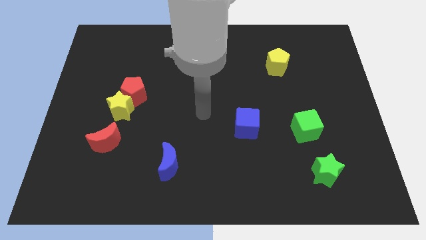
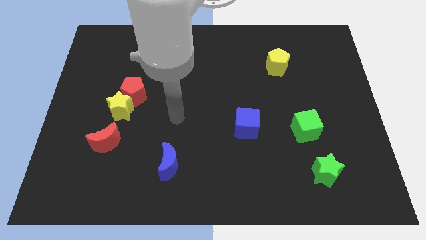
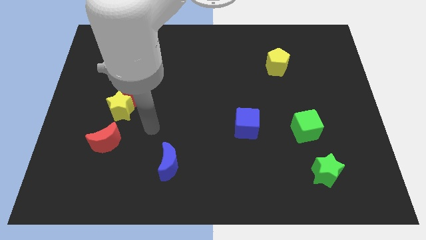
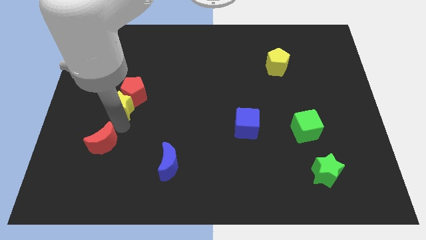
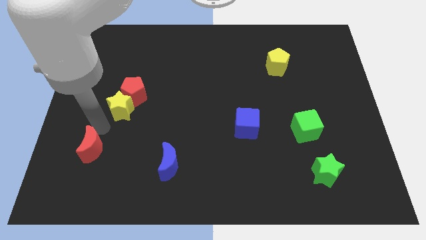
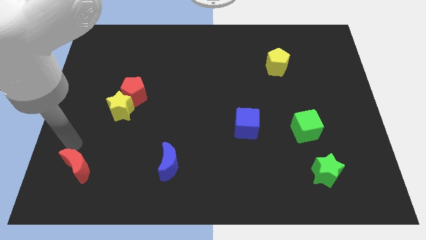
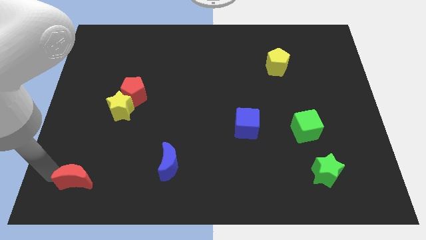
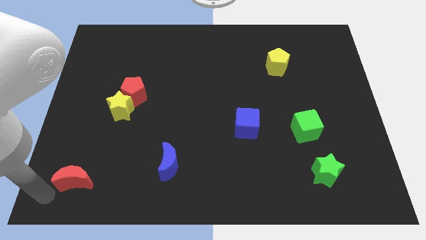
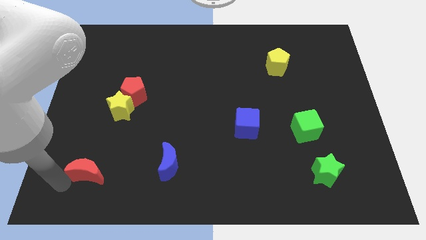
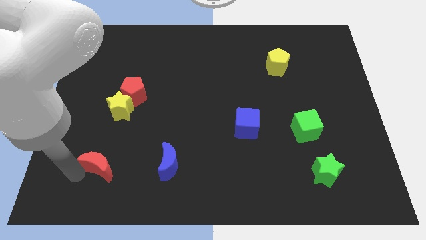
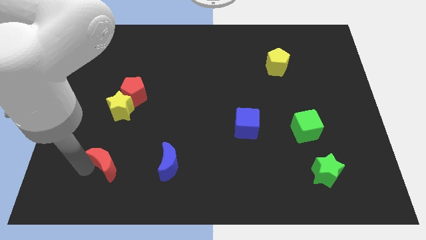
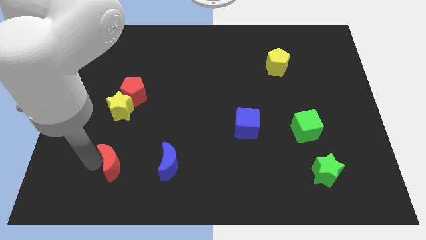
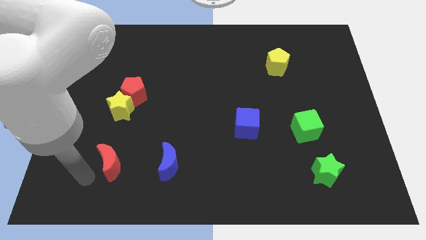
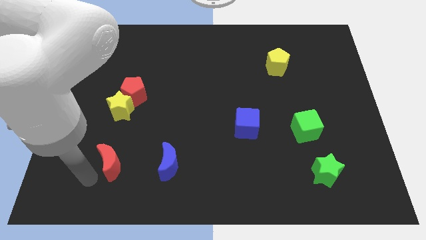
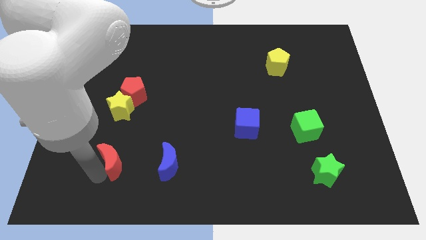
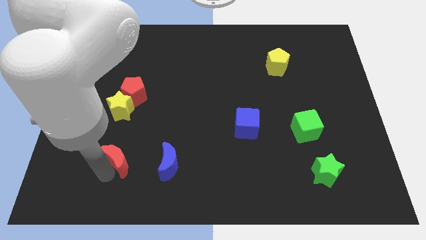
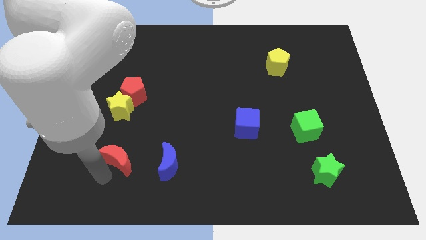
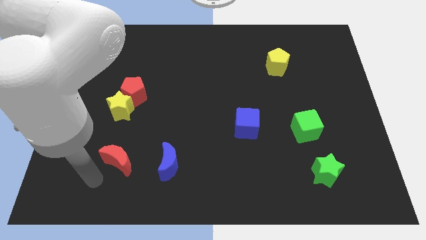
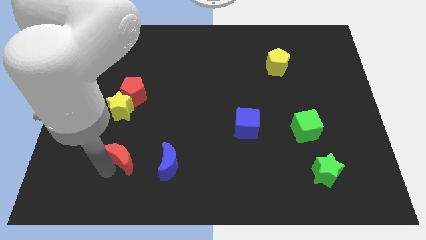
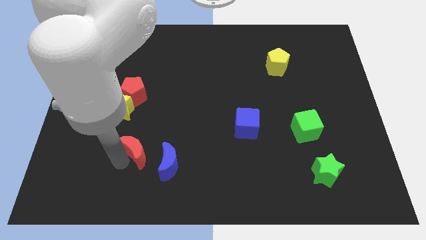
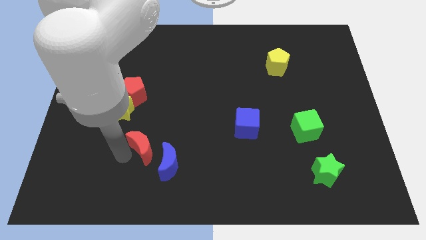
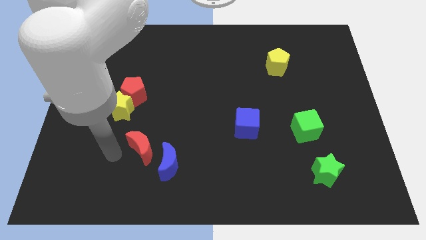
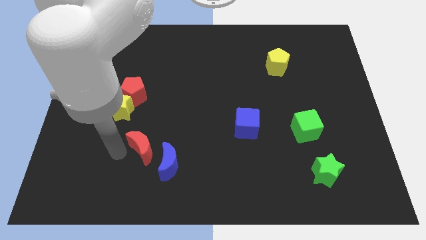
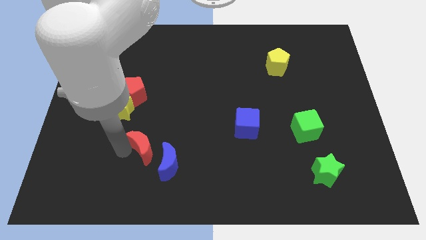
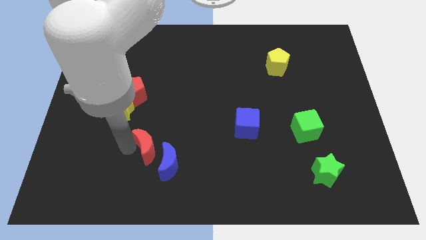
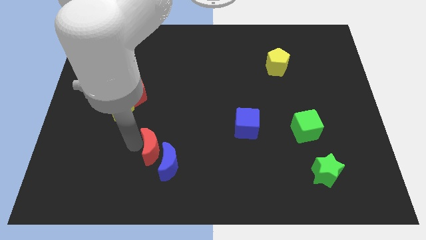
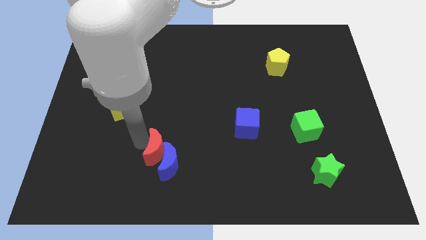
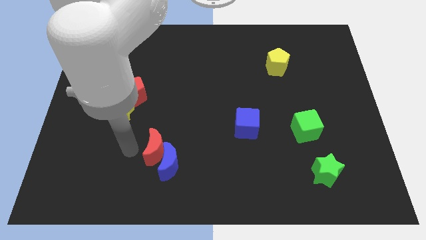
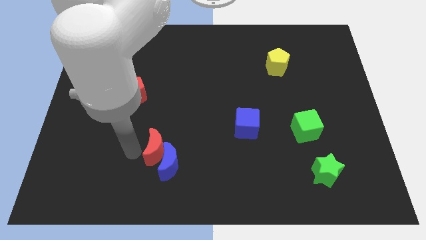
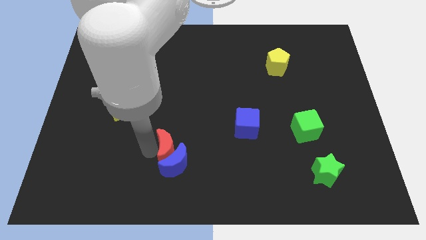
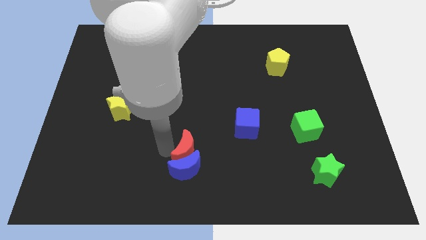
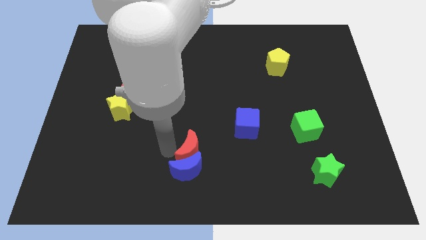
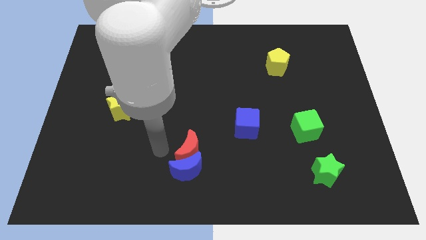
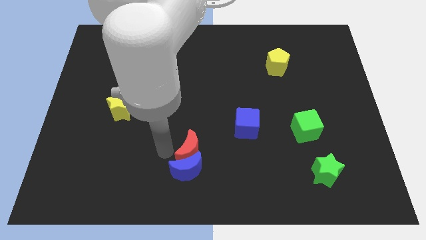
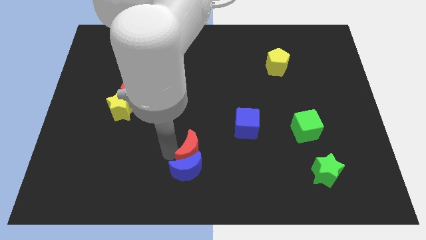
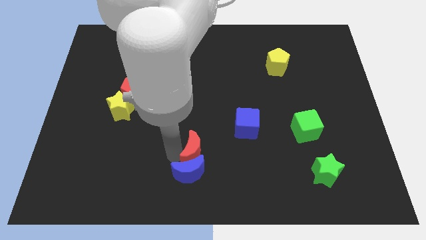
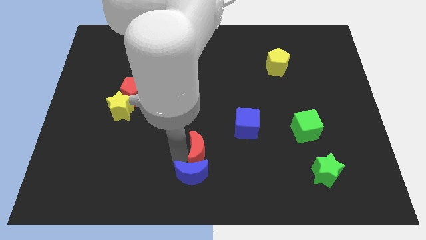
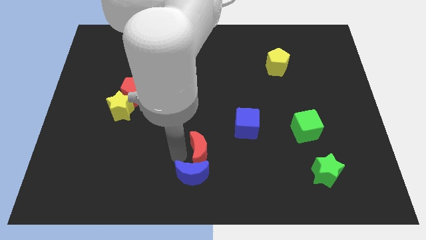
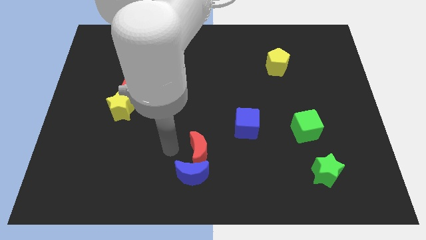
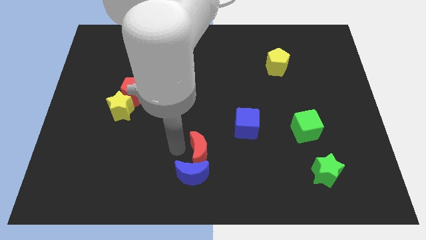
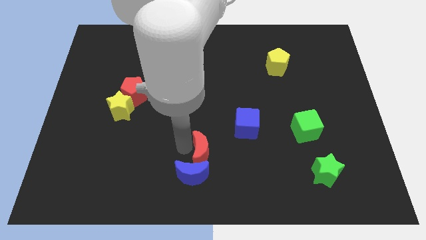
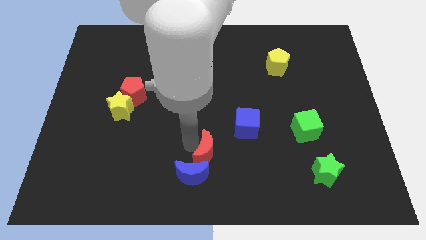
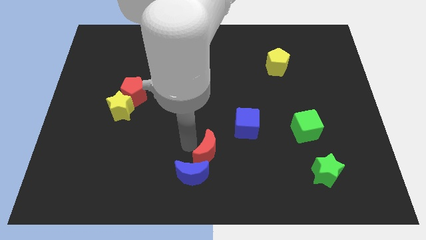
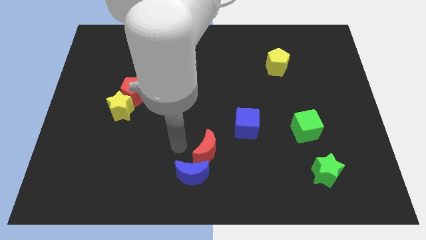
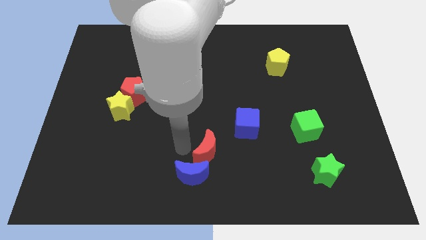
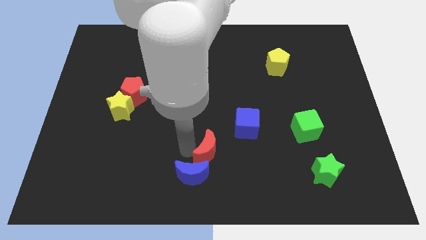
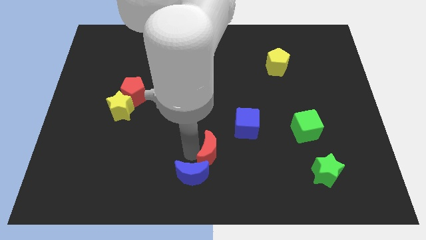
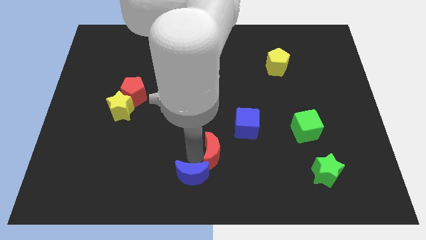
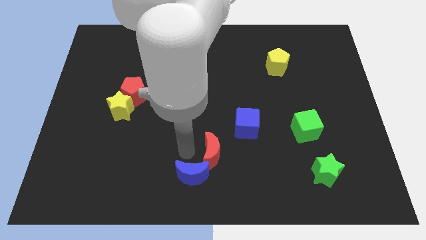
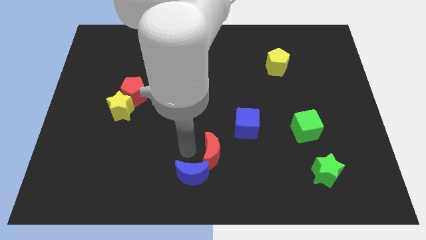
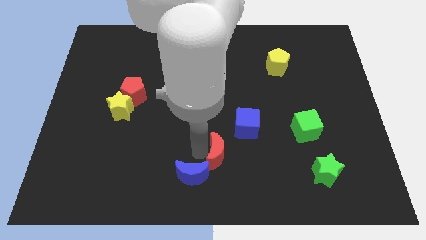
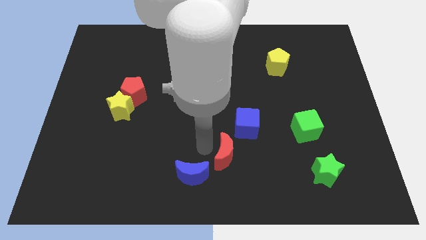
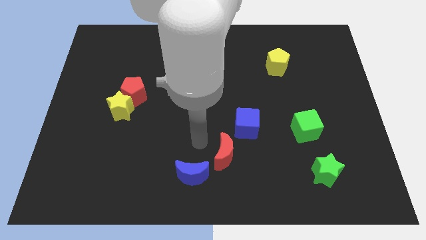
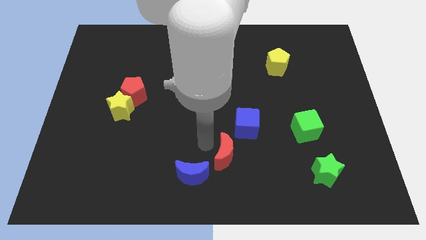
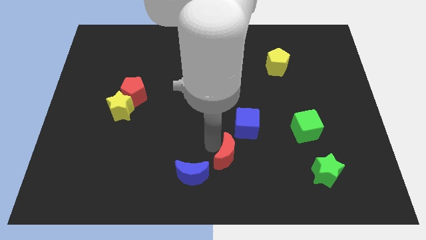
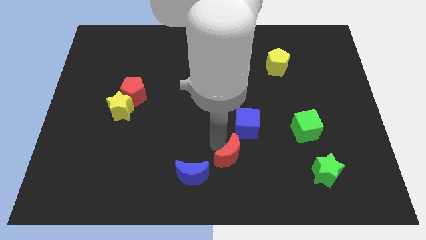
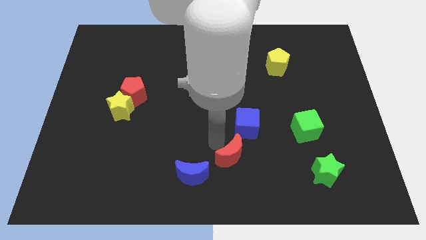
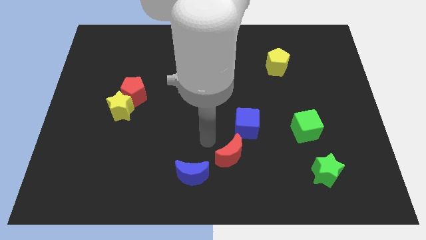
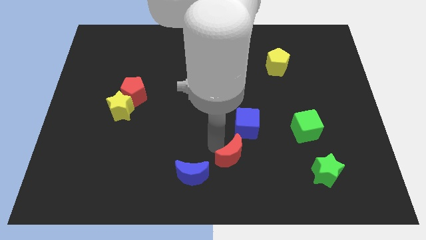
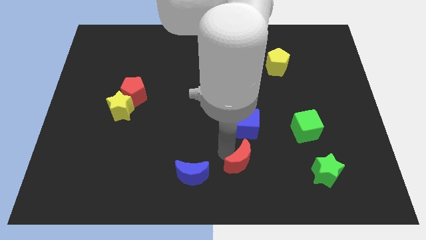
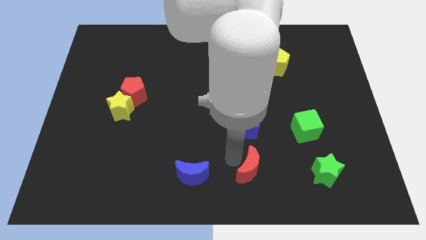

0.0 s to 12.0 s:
put the red moon left of the green star

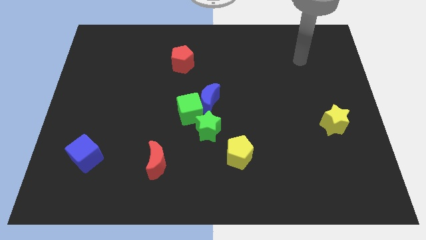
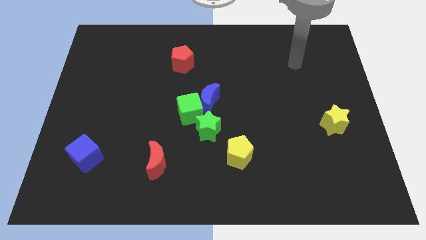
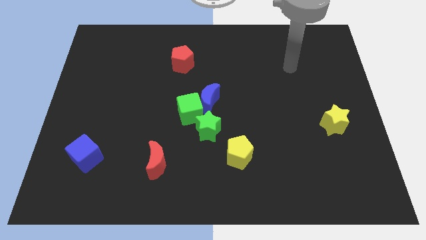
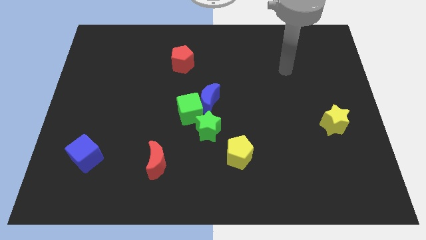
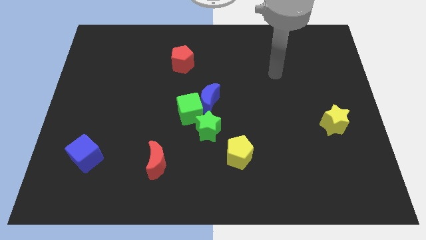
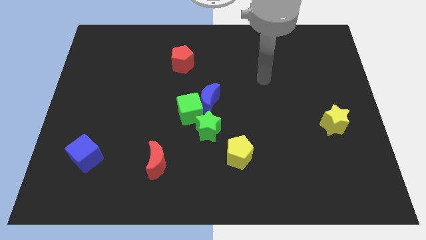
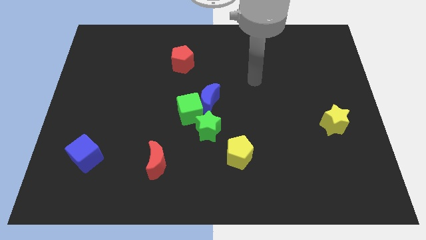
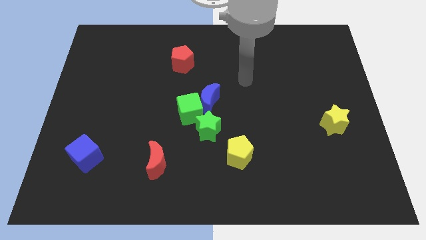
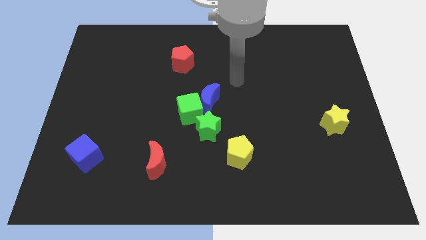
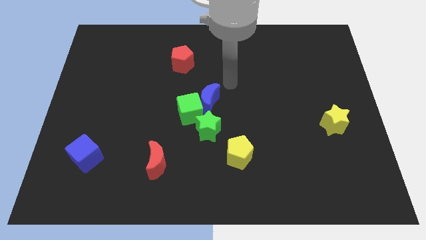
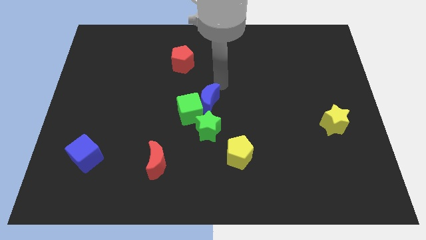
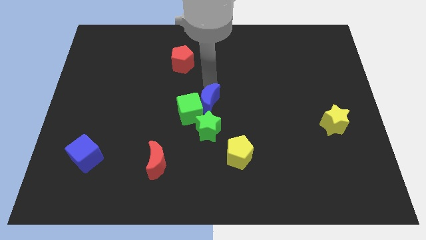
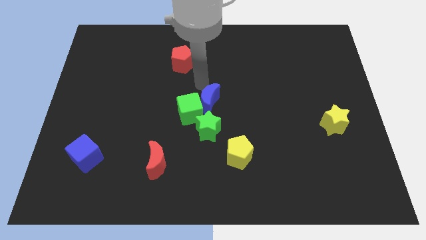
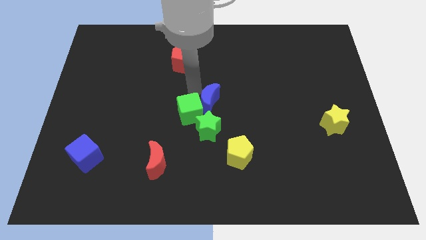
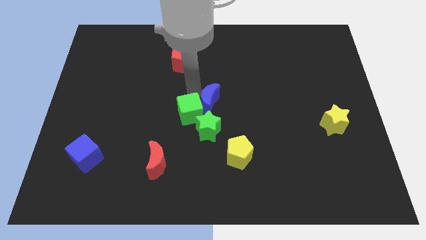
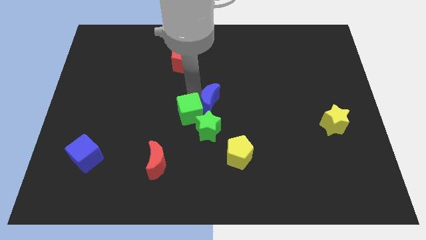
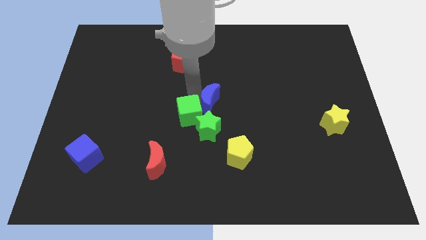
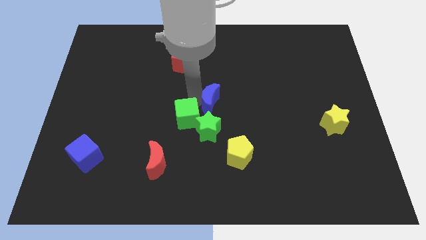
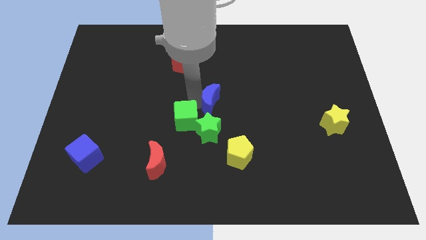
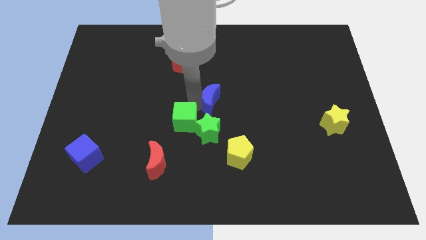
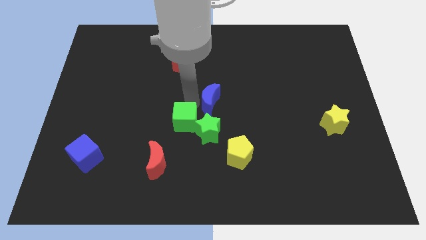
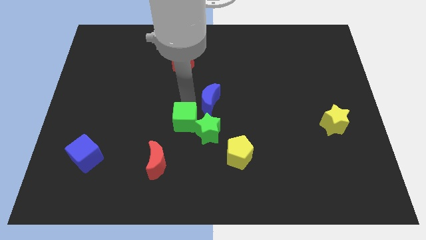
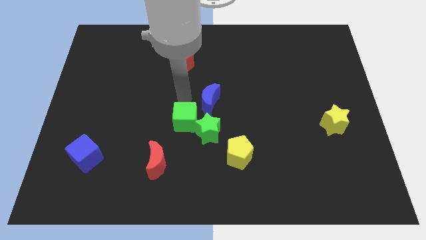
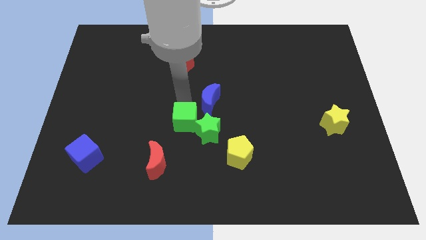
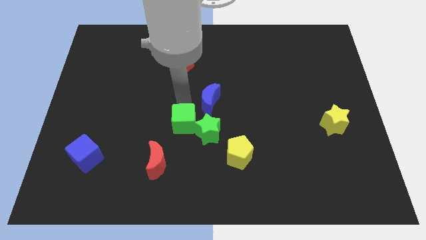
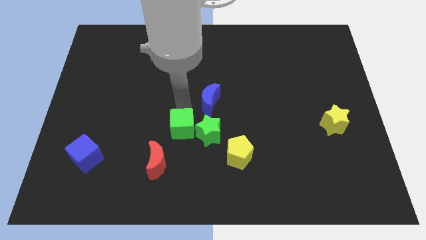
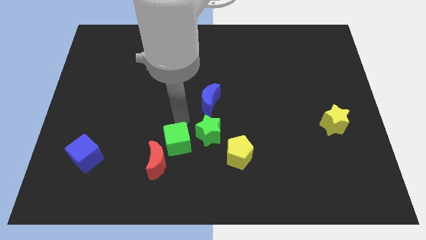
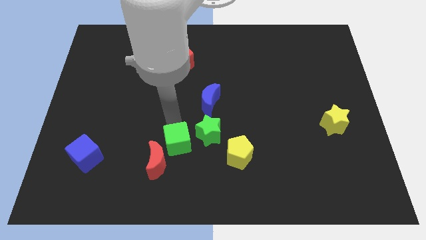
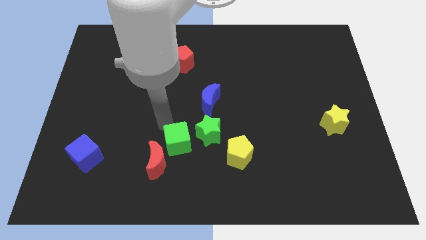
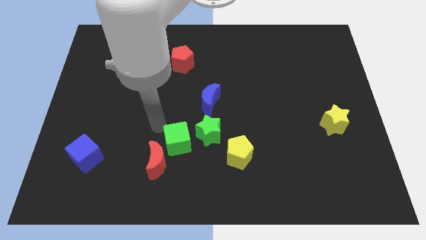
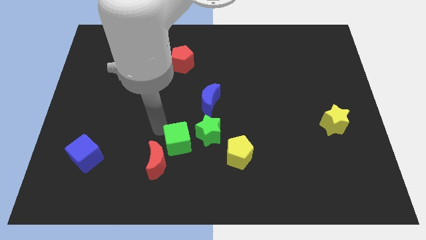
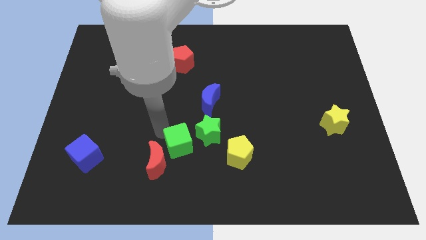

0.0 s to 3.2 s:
push the green cube to the right side of the red moon
